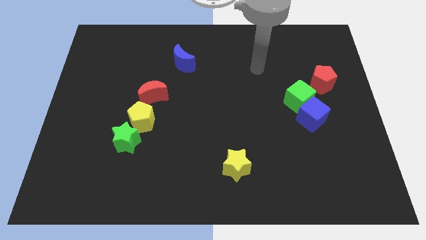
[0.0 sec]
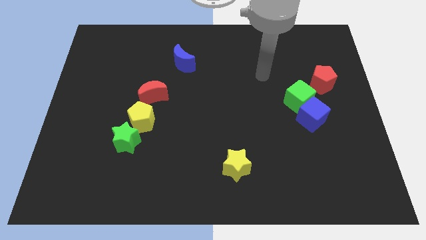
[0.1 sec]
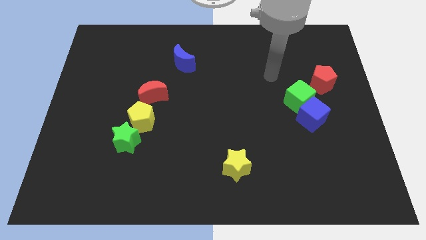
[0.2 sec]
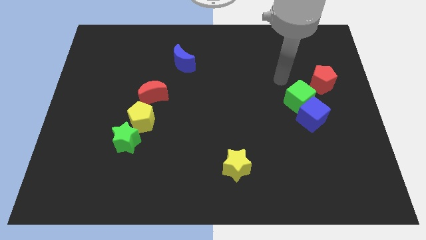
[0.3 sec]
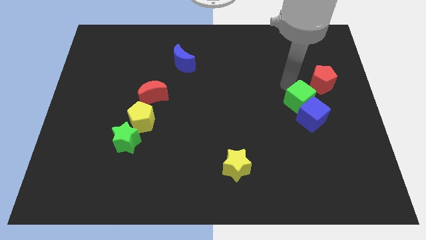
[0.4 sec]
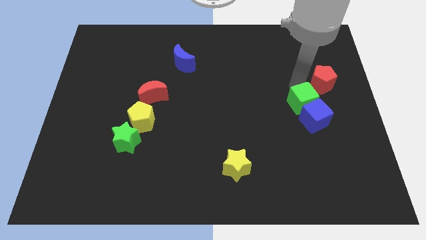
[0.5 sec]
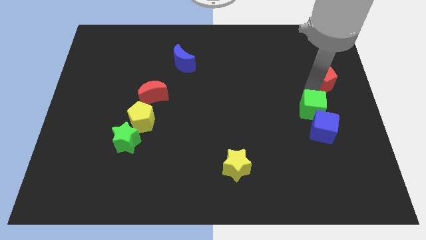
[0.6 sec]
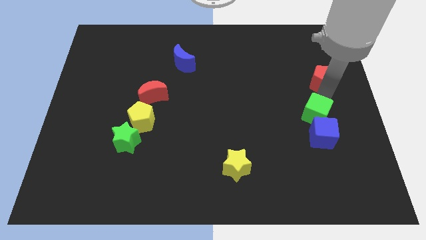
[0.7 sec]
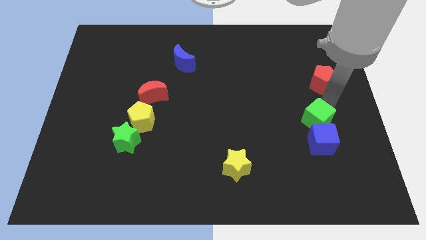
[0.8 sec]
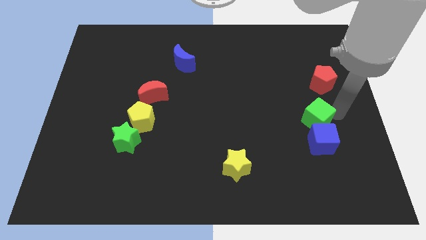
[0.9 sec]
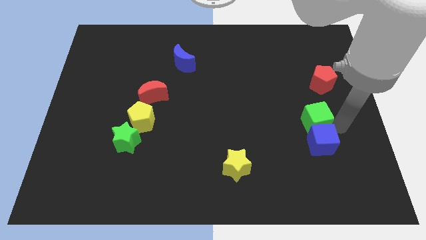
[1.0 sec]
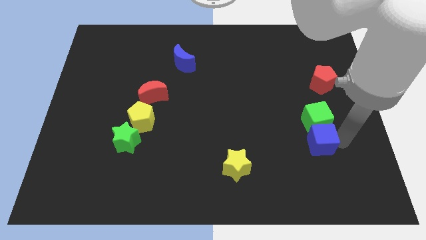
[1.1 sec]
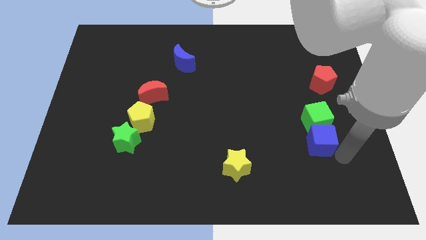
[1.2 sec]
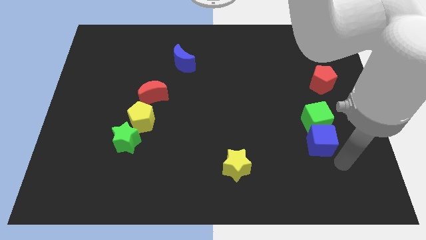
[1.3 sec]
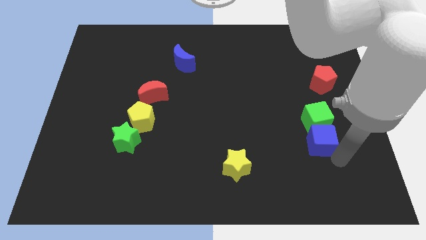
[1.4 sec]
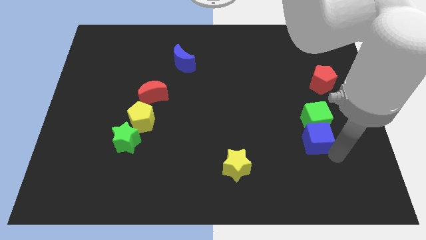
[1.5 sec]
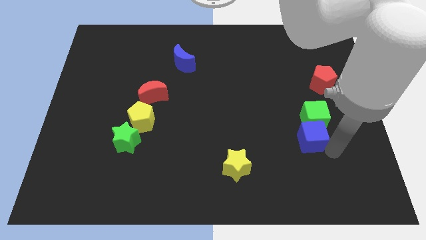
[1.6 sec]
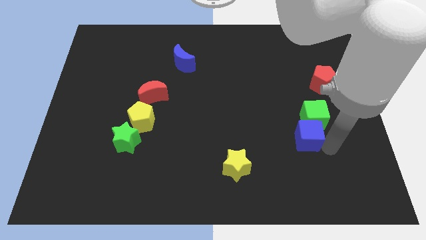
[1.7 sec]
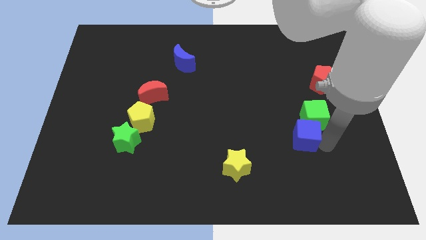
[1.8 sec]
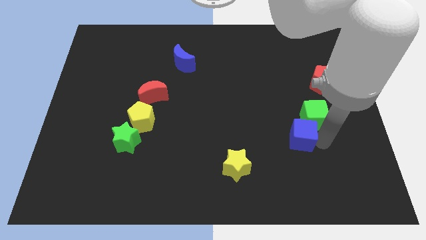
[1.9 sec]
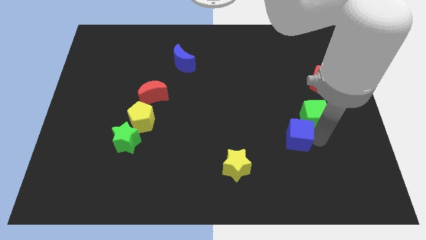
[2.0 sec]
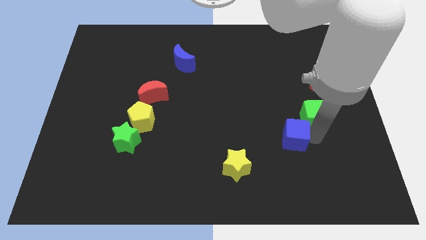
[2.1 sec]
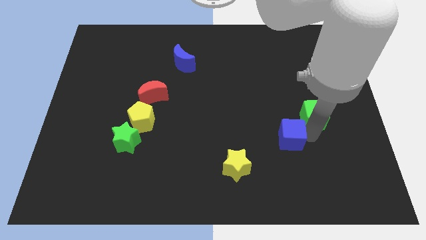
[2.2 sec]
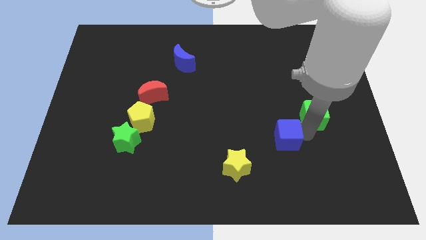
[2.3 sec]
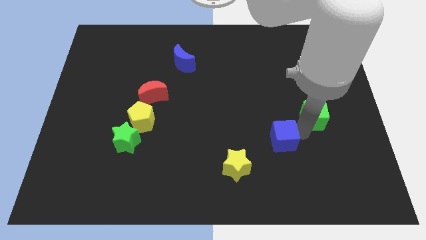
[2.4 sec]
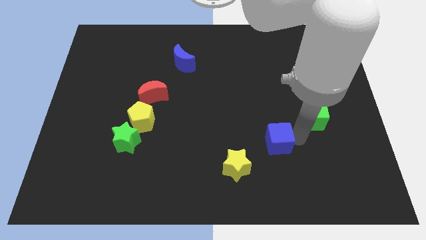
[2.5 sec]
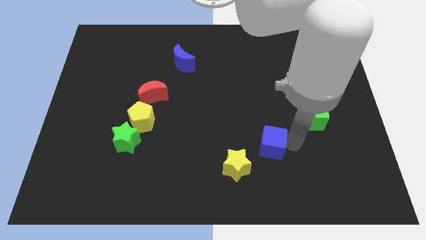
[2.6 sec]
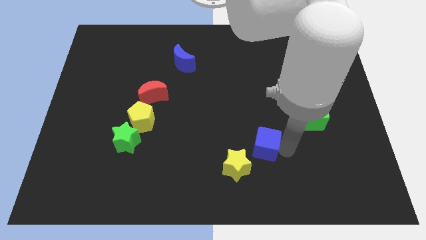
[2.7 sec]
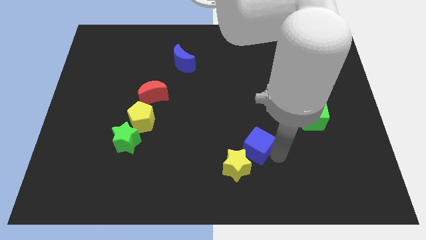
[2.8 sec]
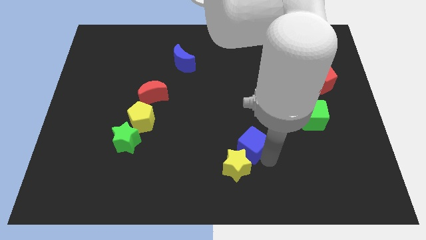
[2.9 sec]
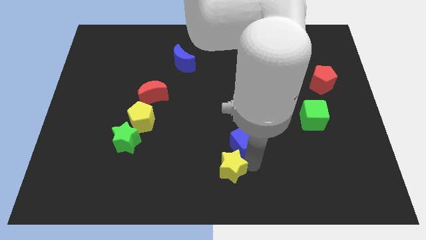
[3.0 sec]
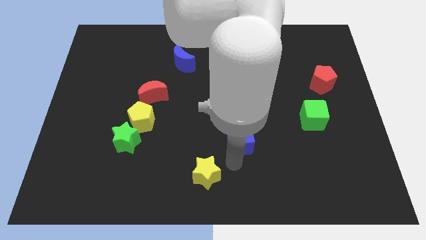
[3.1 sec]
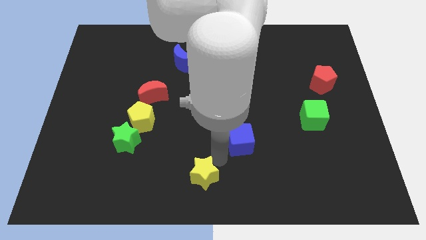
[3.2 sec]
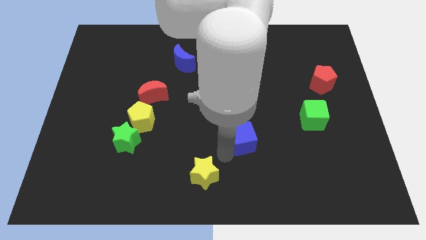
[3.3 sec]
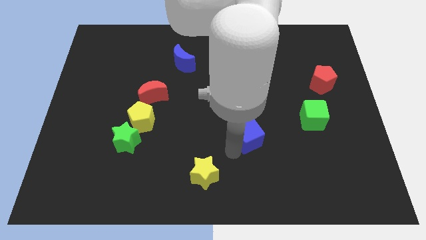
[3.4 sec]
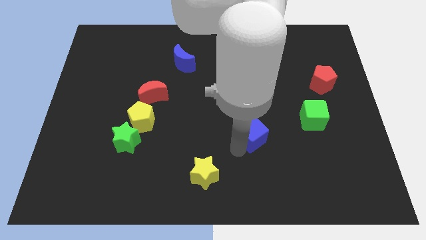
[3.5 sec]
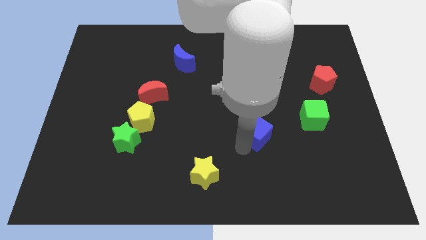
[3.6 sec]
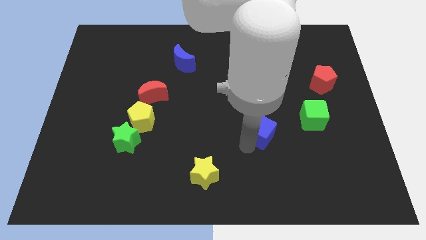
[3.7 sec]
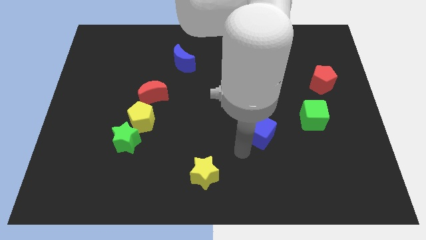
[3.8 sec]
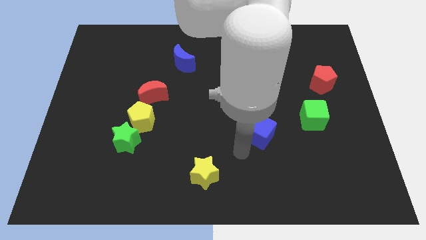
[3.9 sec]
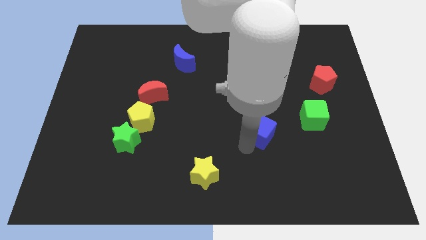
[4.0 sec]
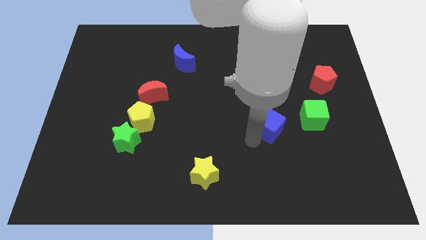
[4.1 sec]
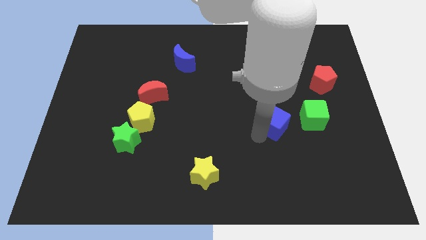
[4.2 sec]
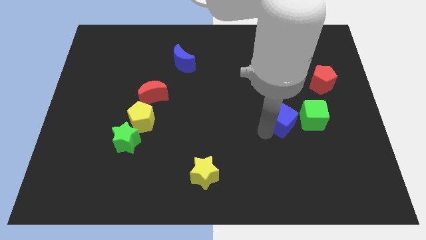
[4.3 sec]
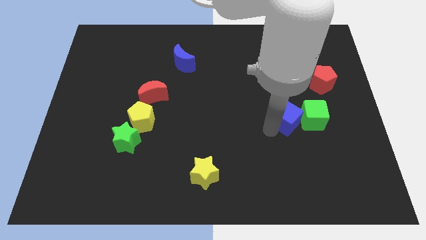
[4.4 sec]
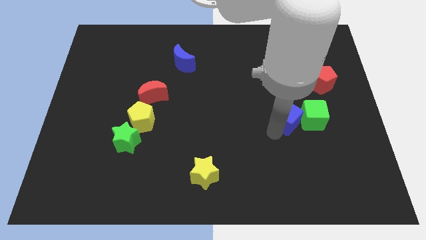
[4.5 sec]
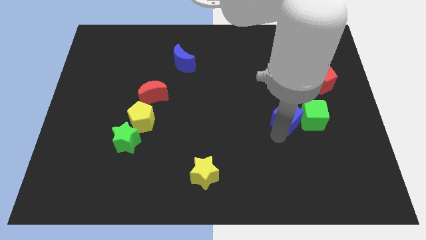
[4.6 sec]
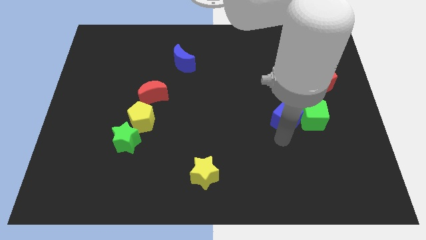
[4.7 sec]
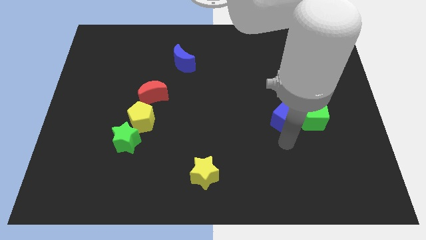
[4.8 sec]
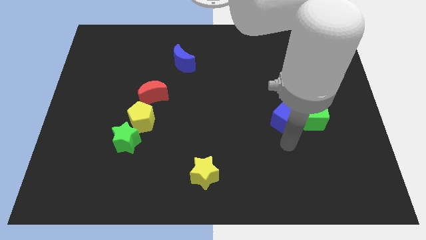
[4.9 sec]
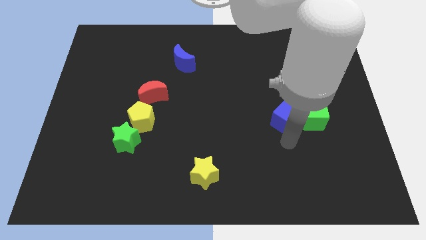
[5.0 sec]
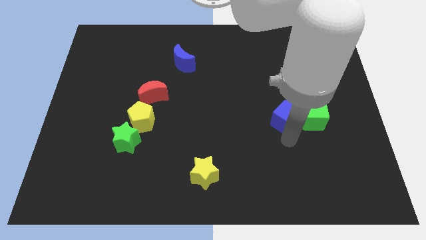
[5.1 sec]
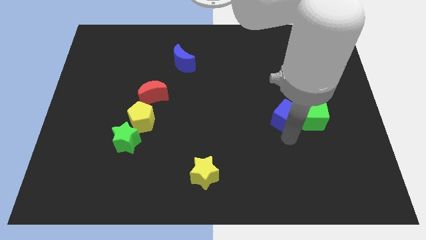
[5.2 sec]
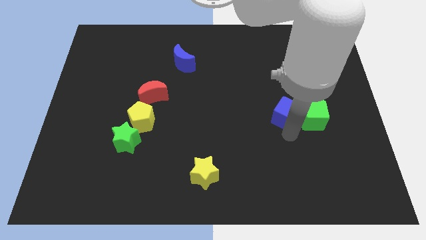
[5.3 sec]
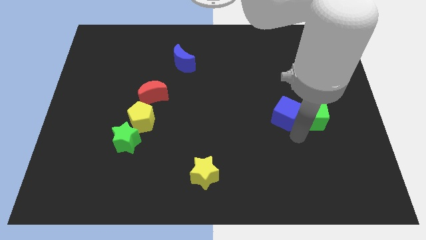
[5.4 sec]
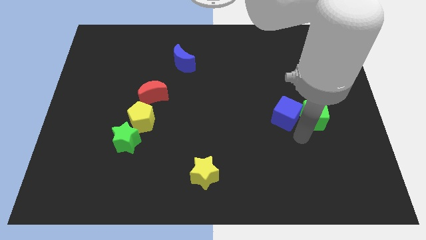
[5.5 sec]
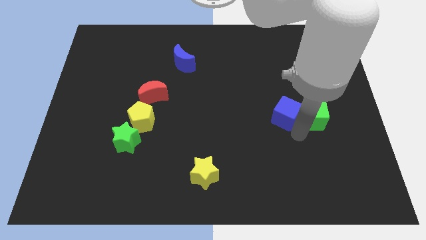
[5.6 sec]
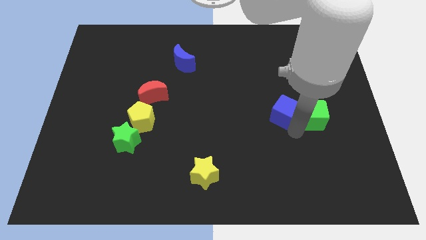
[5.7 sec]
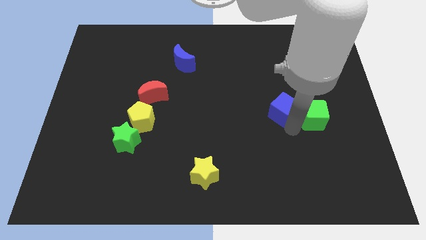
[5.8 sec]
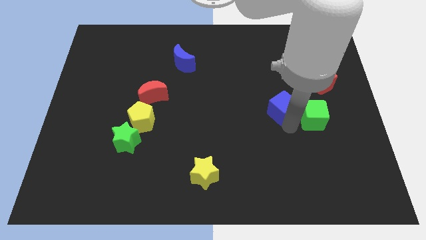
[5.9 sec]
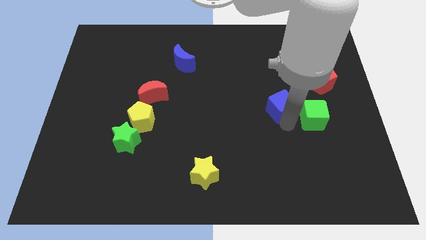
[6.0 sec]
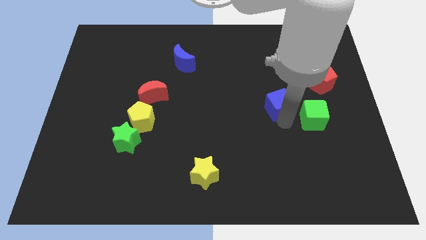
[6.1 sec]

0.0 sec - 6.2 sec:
push the blue cube a little bit up and left diagonally

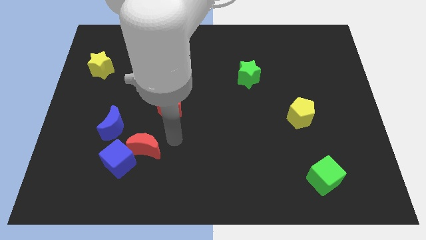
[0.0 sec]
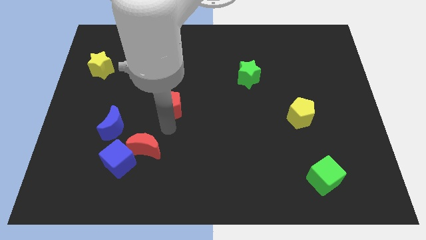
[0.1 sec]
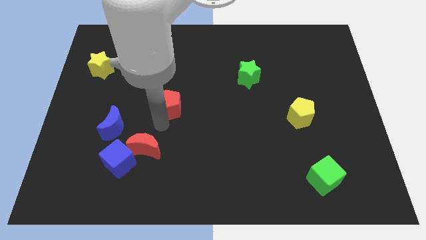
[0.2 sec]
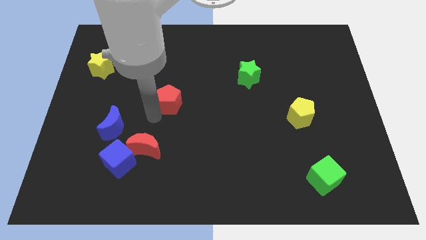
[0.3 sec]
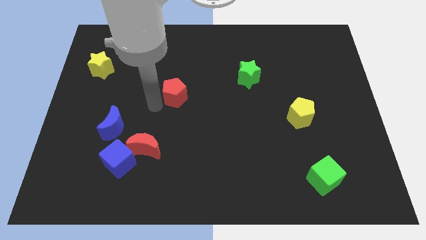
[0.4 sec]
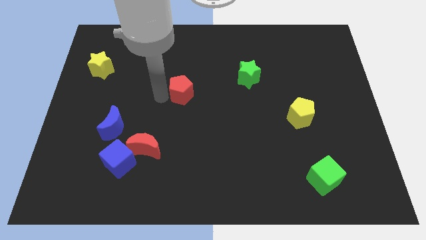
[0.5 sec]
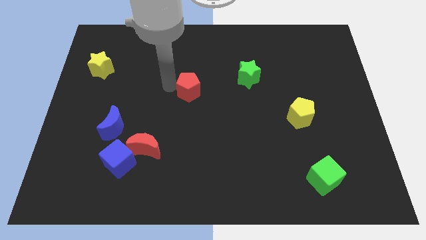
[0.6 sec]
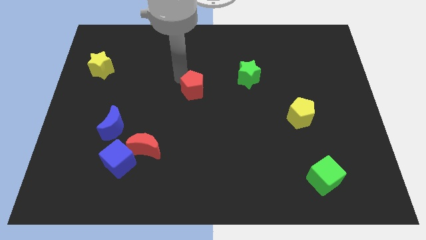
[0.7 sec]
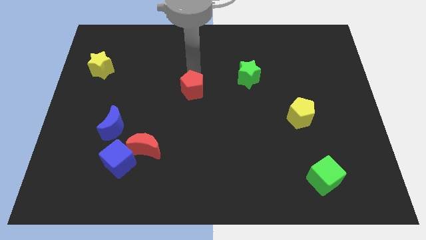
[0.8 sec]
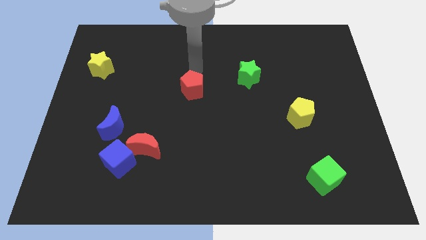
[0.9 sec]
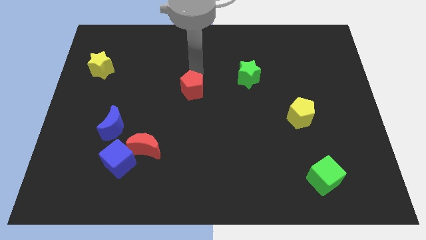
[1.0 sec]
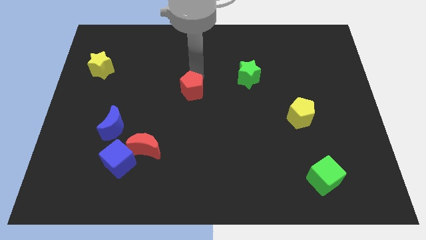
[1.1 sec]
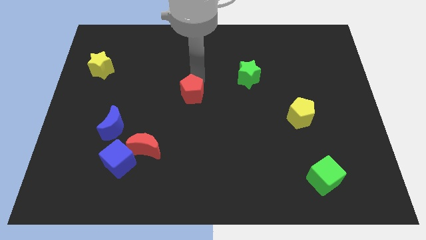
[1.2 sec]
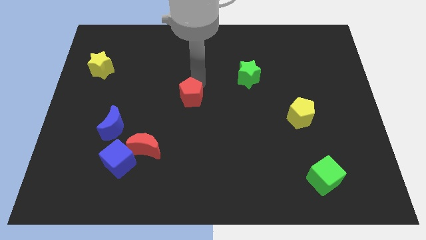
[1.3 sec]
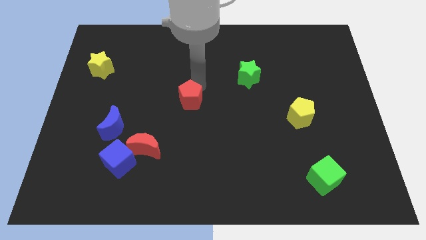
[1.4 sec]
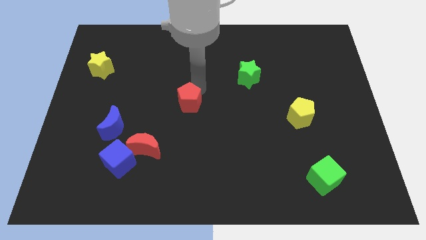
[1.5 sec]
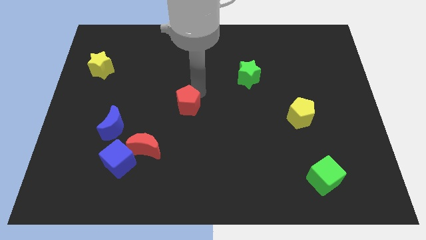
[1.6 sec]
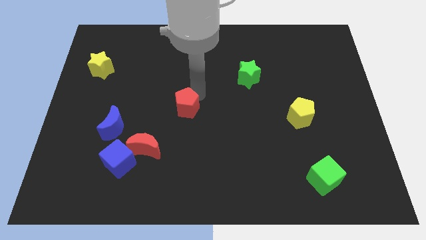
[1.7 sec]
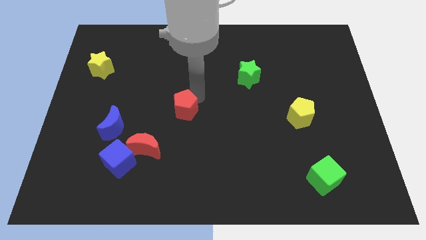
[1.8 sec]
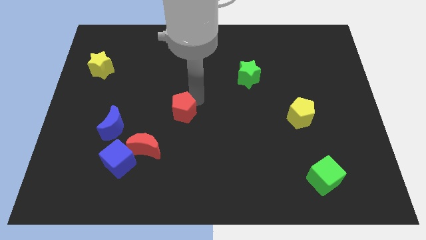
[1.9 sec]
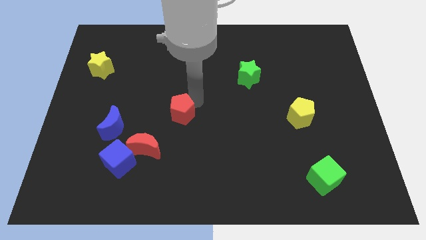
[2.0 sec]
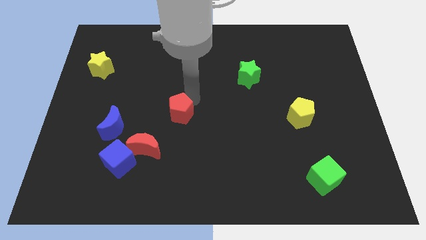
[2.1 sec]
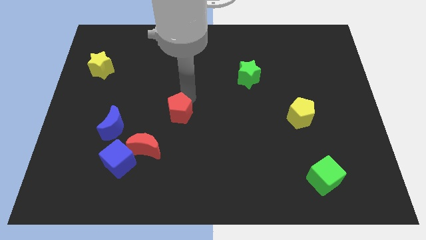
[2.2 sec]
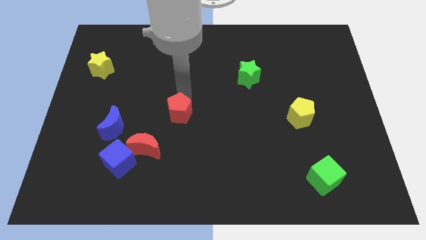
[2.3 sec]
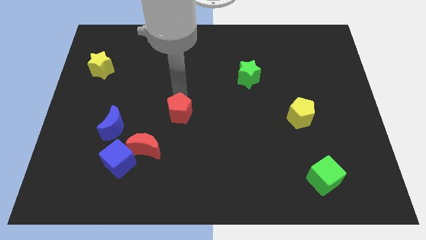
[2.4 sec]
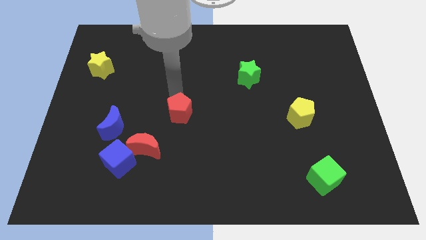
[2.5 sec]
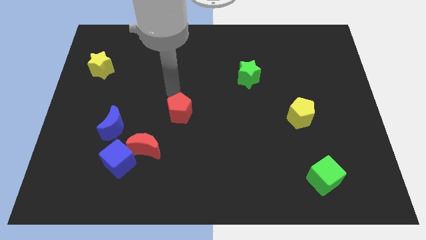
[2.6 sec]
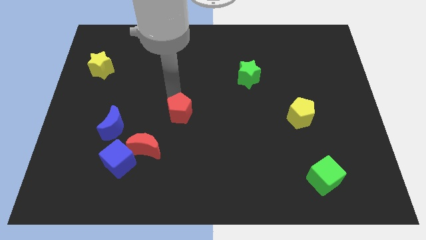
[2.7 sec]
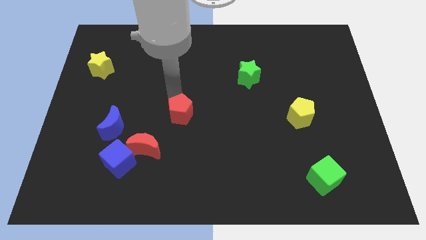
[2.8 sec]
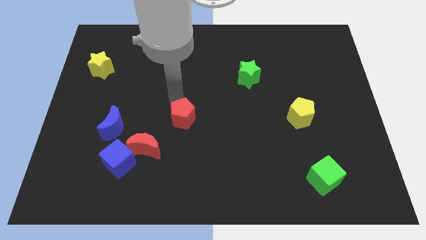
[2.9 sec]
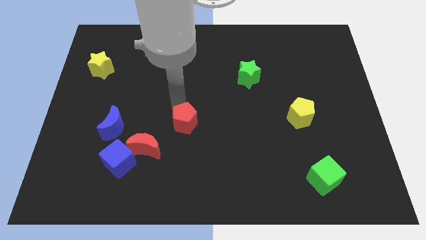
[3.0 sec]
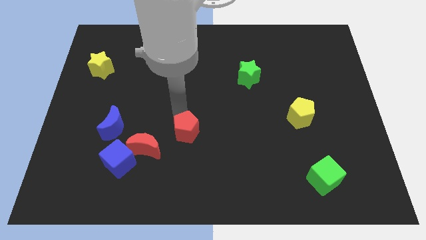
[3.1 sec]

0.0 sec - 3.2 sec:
slightly slide the red pentagon downwards and then right
